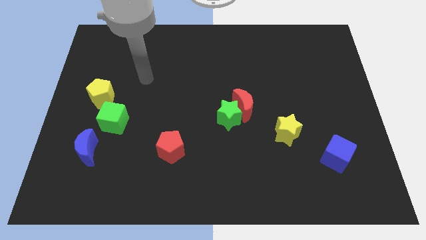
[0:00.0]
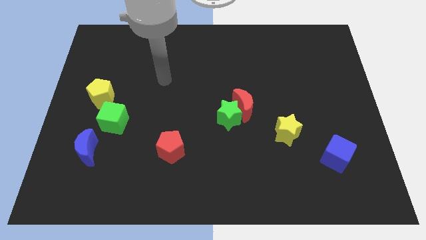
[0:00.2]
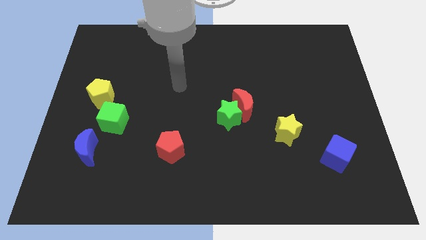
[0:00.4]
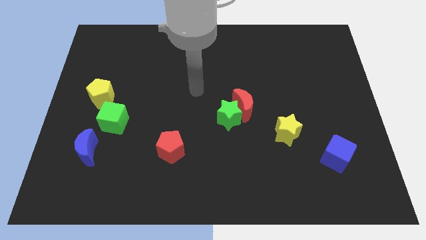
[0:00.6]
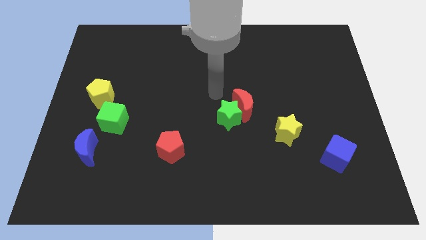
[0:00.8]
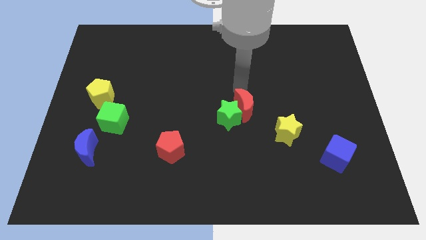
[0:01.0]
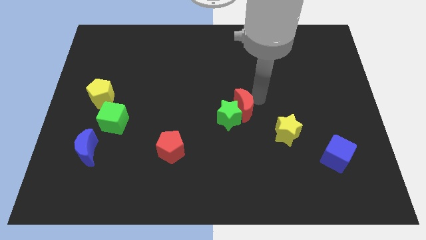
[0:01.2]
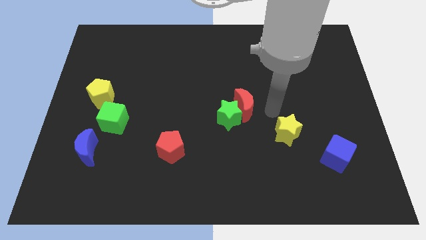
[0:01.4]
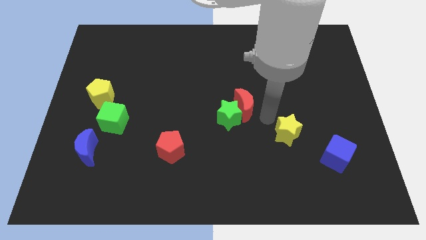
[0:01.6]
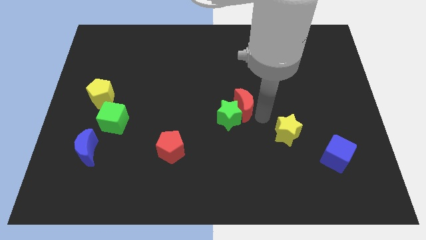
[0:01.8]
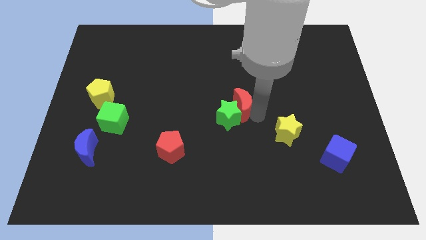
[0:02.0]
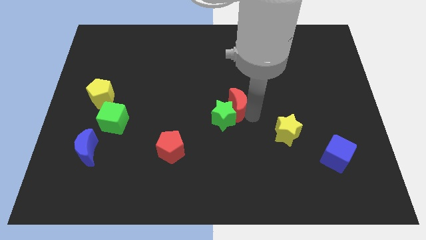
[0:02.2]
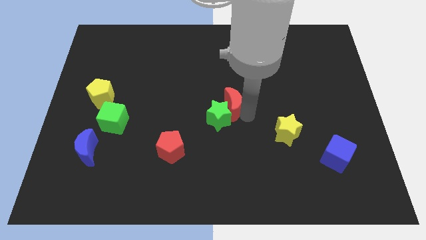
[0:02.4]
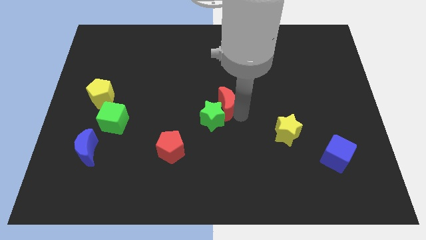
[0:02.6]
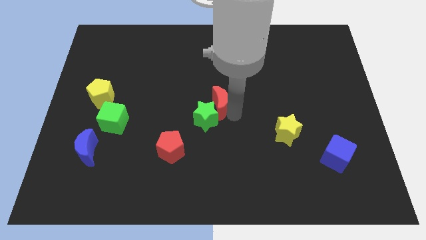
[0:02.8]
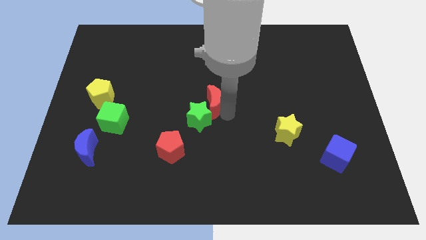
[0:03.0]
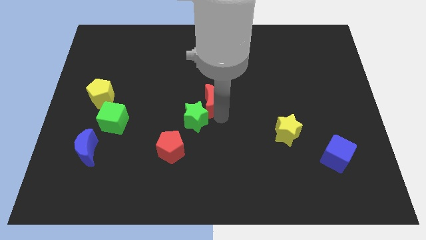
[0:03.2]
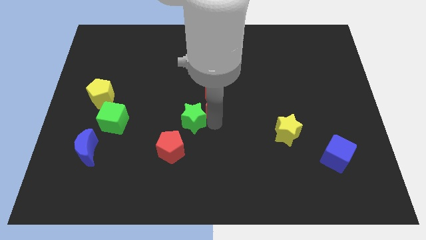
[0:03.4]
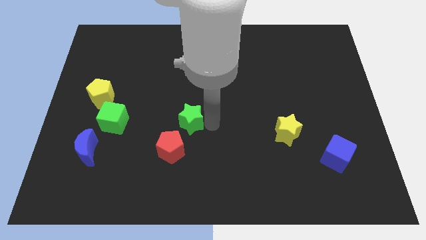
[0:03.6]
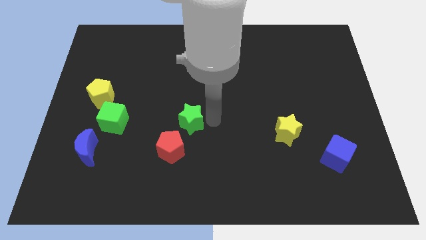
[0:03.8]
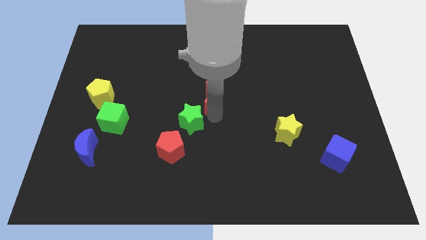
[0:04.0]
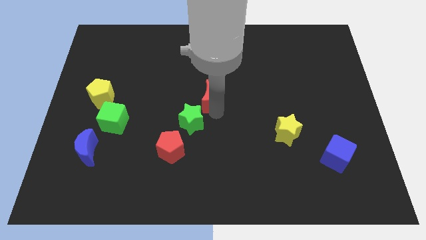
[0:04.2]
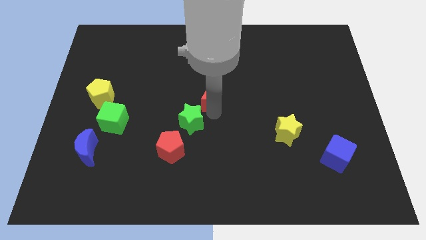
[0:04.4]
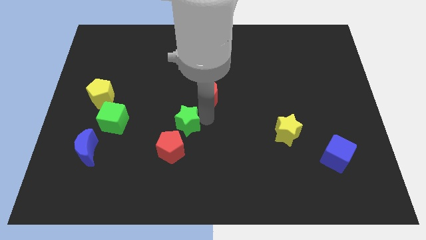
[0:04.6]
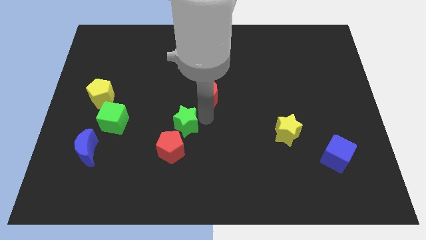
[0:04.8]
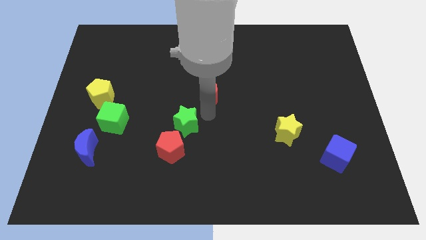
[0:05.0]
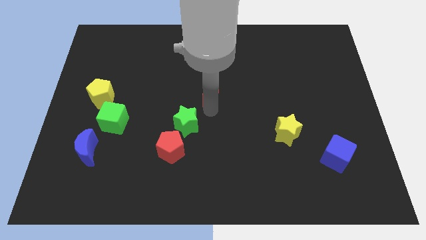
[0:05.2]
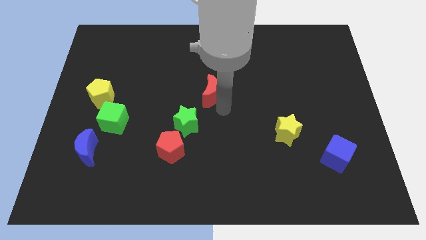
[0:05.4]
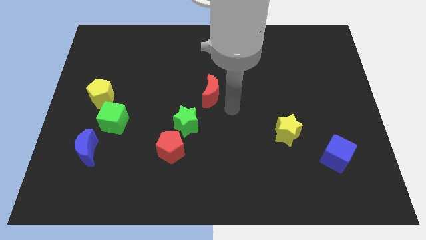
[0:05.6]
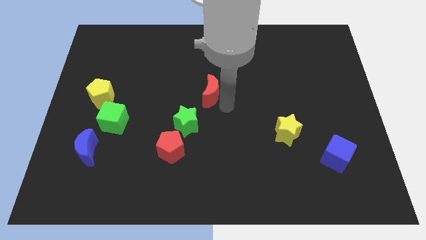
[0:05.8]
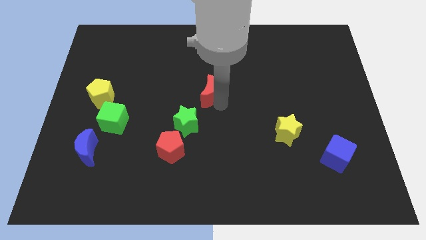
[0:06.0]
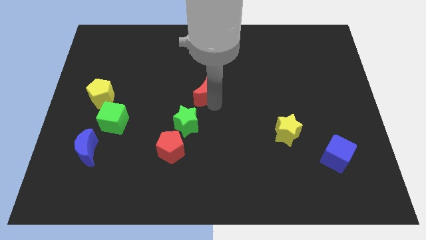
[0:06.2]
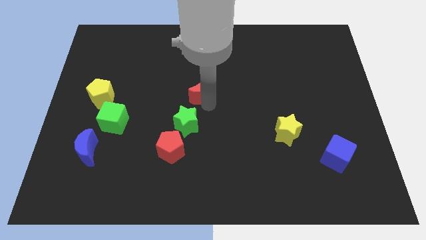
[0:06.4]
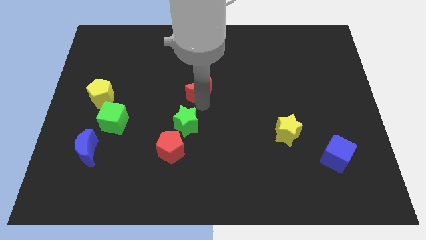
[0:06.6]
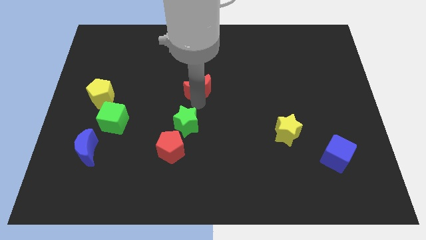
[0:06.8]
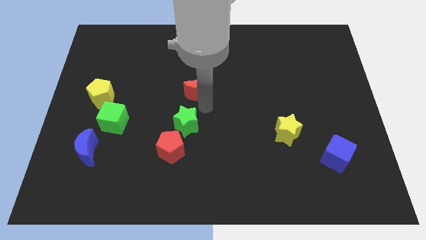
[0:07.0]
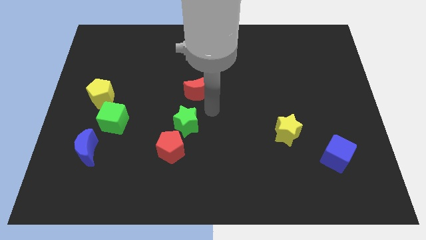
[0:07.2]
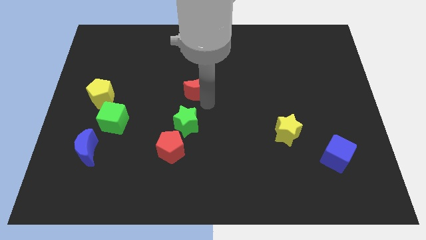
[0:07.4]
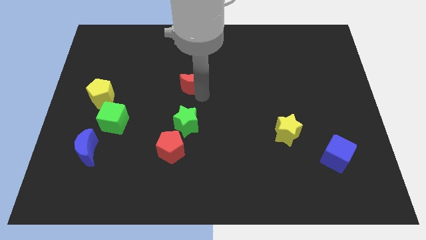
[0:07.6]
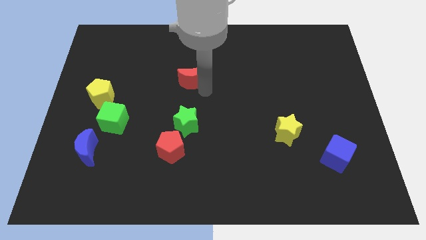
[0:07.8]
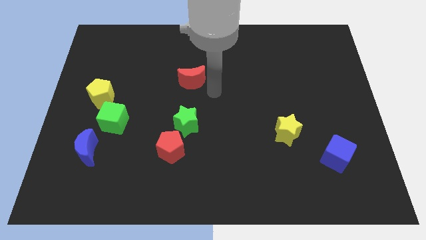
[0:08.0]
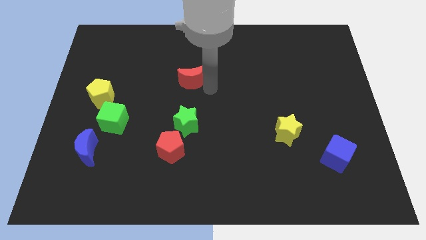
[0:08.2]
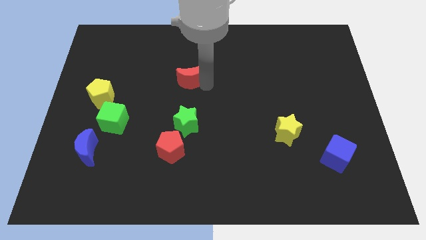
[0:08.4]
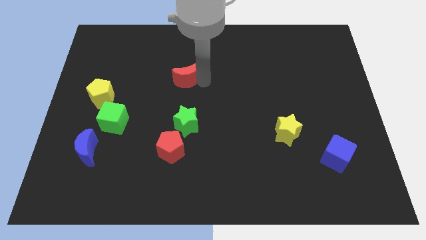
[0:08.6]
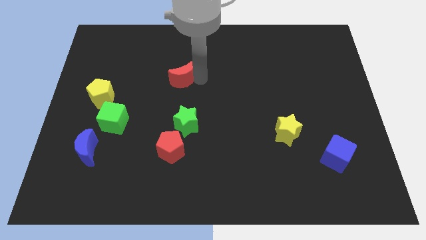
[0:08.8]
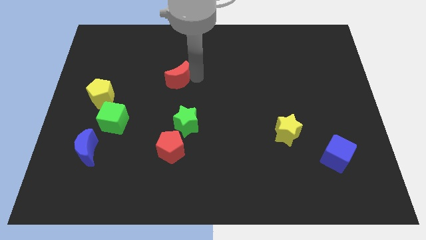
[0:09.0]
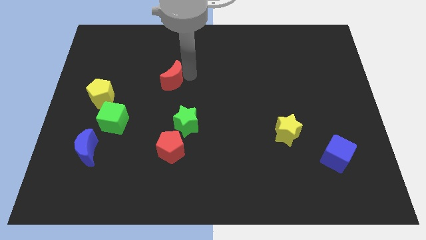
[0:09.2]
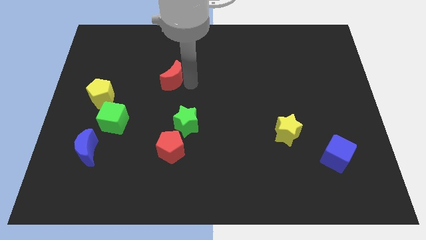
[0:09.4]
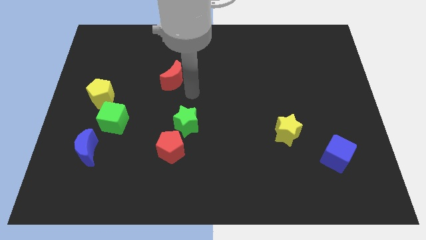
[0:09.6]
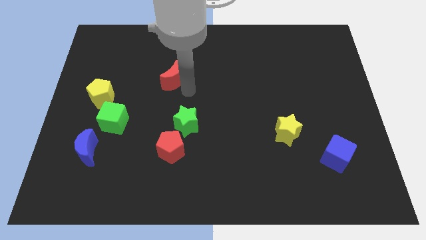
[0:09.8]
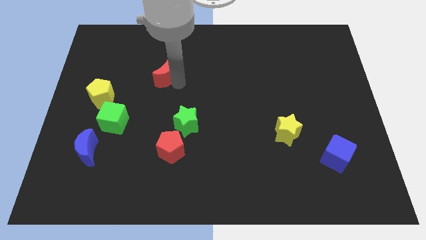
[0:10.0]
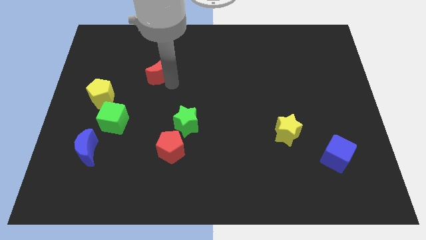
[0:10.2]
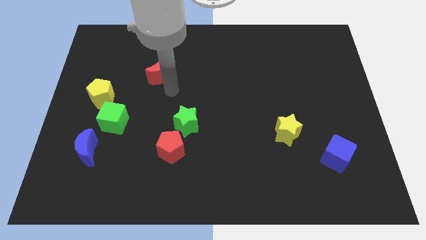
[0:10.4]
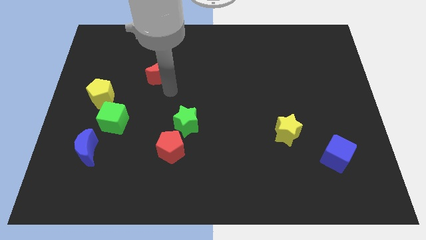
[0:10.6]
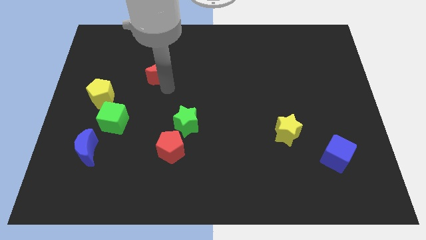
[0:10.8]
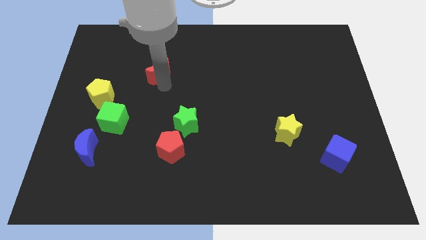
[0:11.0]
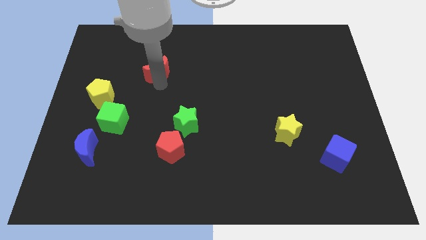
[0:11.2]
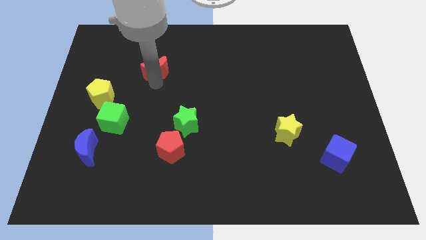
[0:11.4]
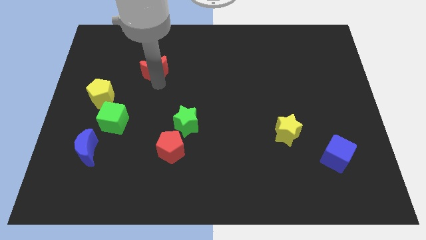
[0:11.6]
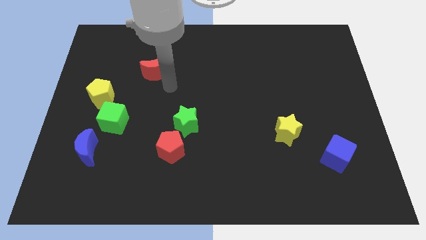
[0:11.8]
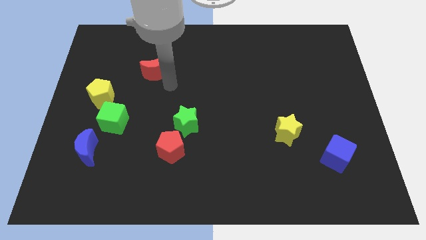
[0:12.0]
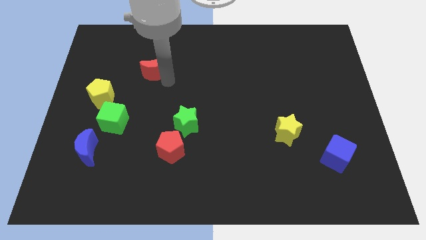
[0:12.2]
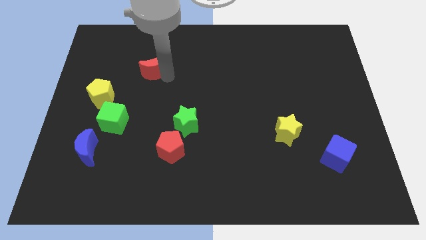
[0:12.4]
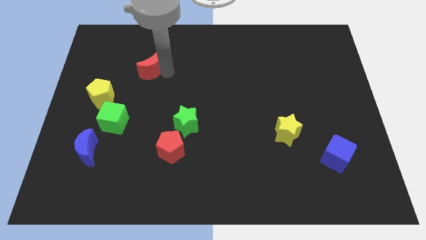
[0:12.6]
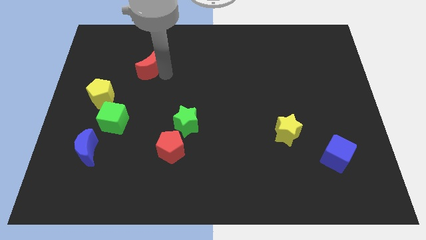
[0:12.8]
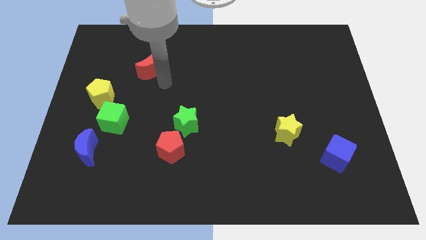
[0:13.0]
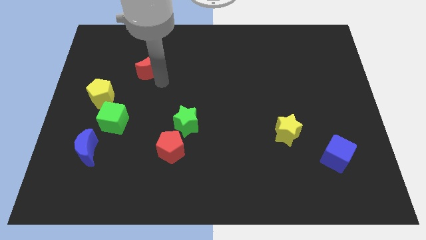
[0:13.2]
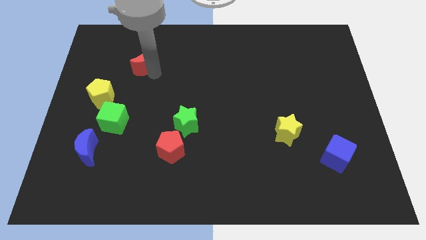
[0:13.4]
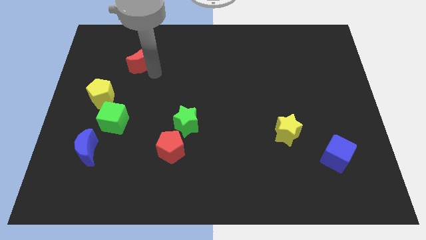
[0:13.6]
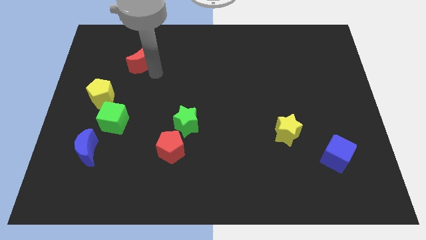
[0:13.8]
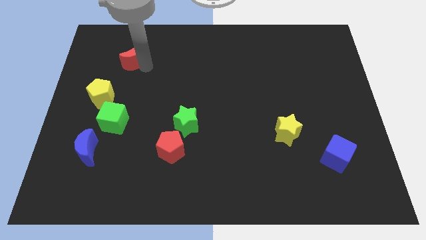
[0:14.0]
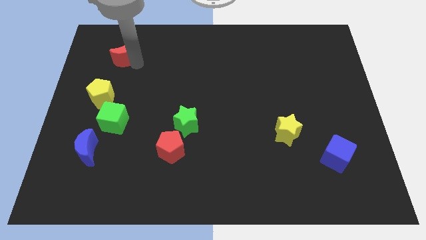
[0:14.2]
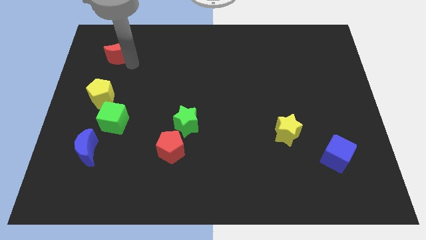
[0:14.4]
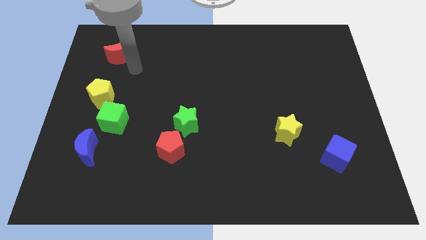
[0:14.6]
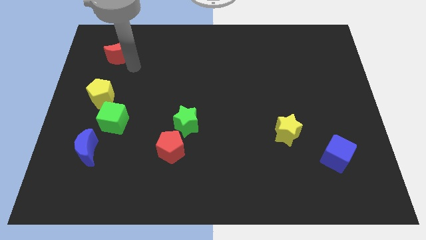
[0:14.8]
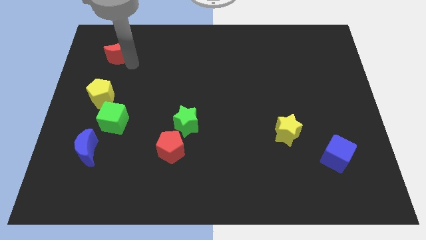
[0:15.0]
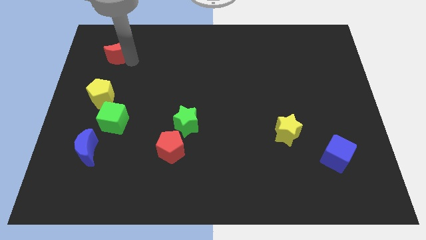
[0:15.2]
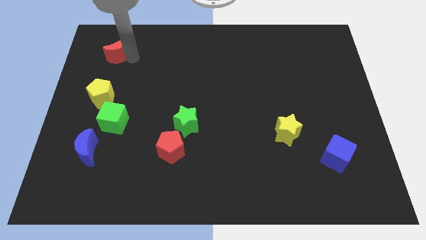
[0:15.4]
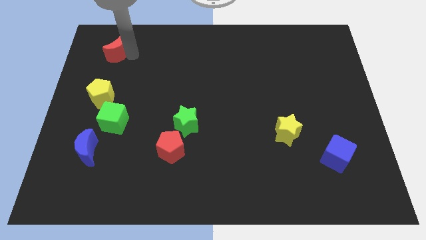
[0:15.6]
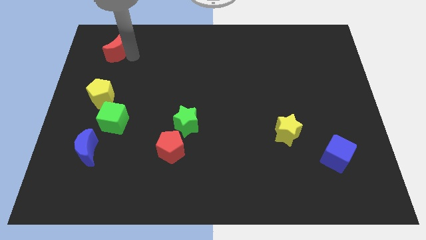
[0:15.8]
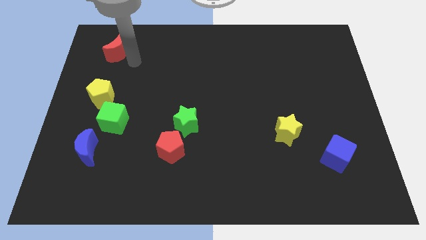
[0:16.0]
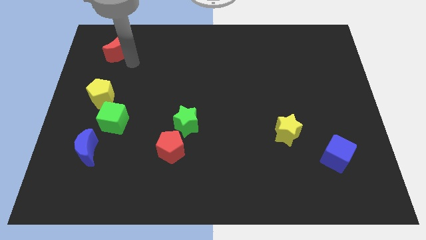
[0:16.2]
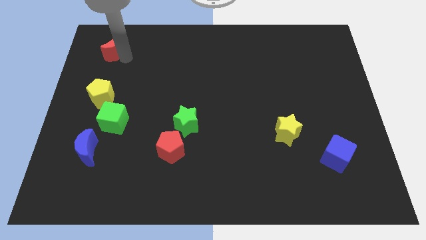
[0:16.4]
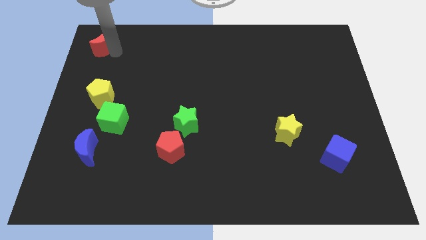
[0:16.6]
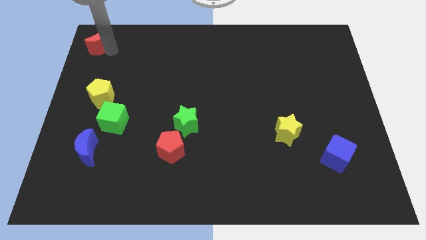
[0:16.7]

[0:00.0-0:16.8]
put the red moon to the top left of the board
